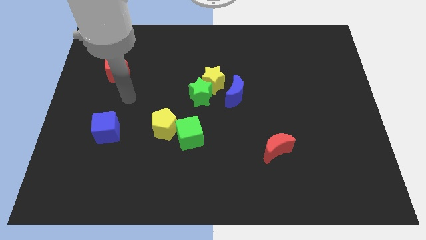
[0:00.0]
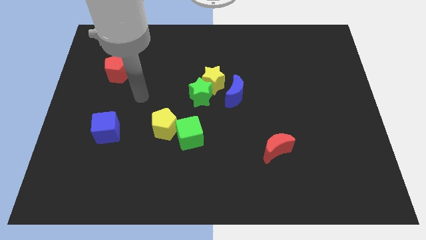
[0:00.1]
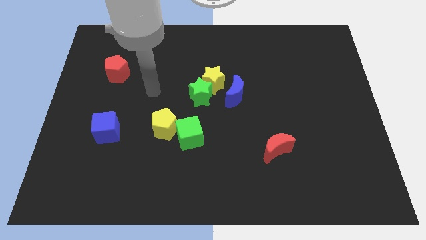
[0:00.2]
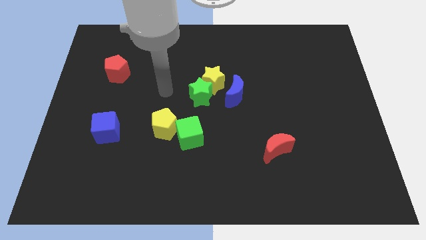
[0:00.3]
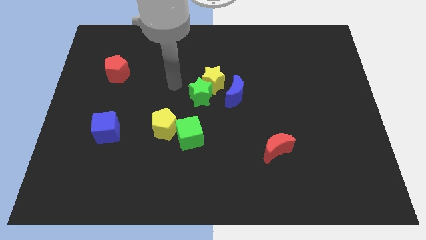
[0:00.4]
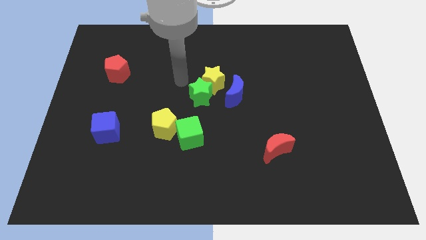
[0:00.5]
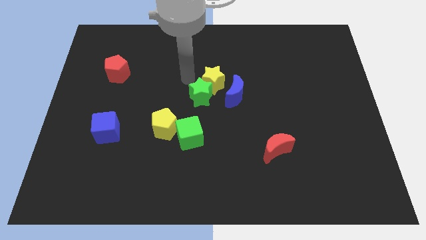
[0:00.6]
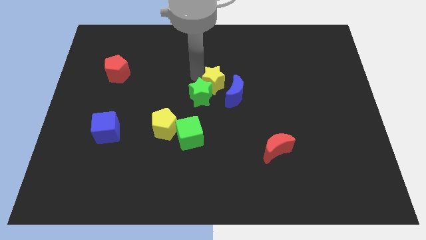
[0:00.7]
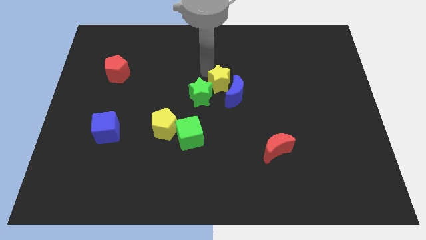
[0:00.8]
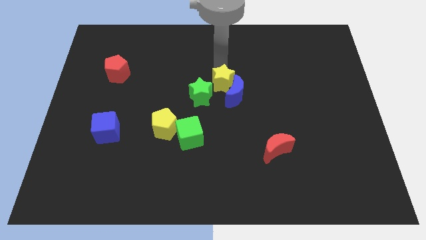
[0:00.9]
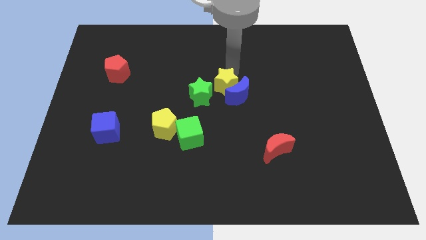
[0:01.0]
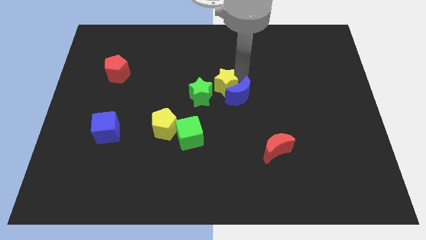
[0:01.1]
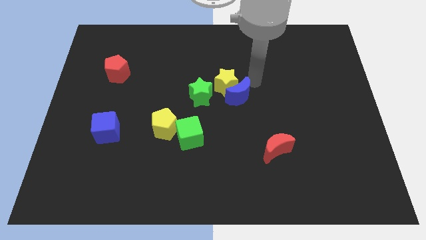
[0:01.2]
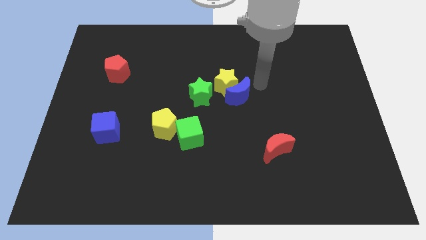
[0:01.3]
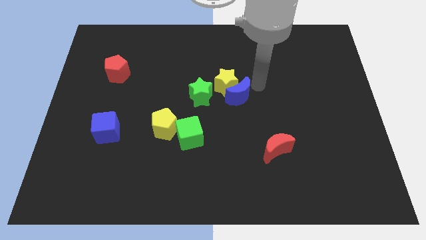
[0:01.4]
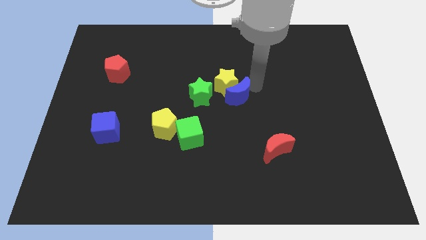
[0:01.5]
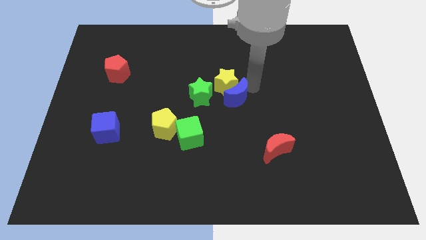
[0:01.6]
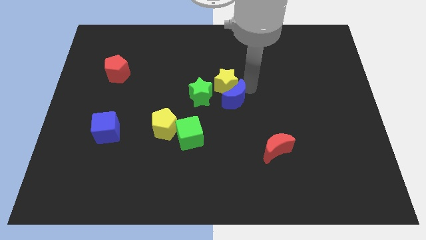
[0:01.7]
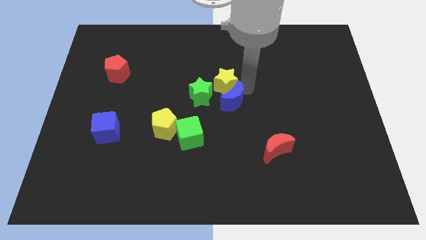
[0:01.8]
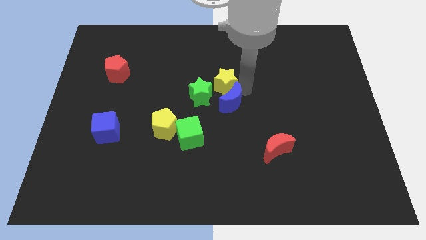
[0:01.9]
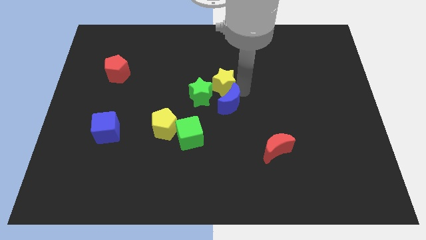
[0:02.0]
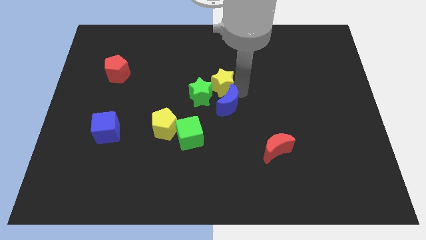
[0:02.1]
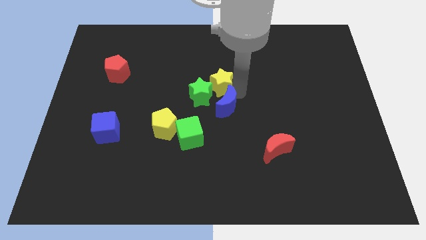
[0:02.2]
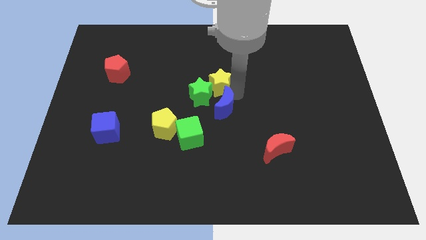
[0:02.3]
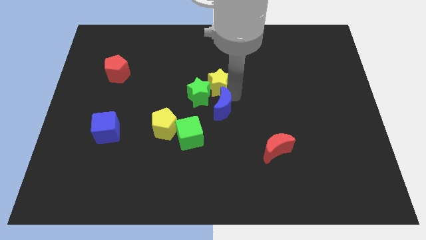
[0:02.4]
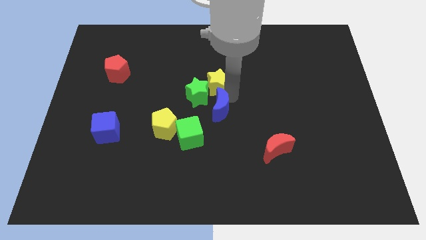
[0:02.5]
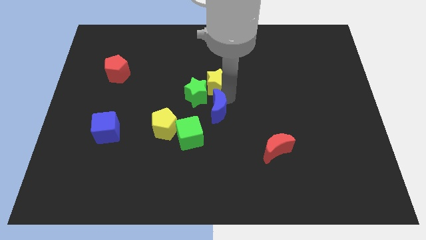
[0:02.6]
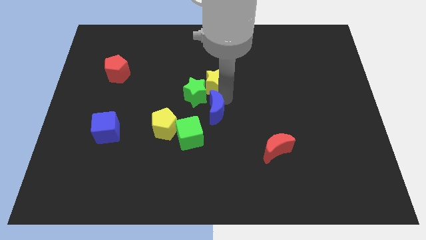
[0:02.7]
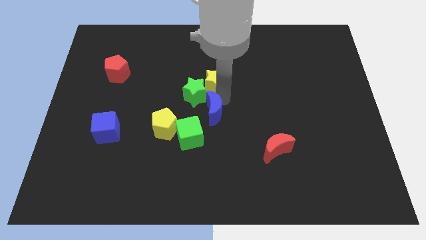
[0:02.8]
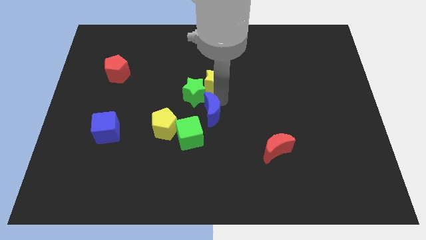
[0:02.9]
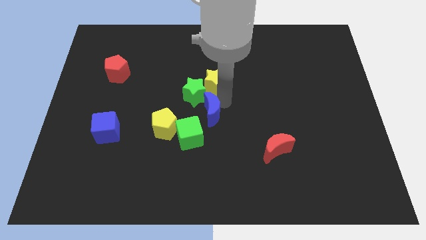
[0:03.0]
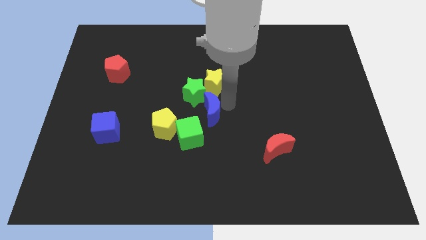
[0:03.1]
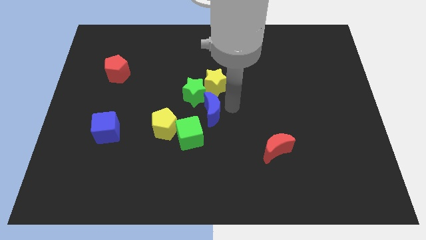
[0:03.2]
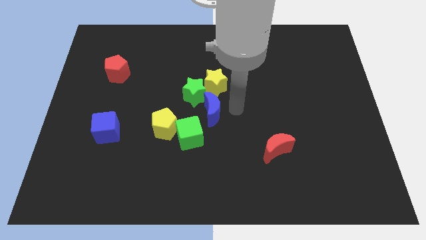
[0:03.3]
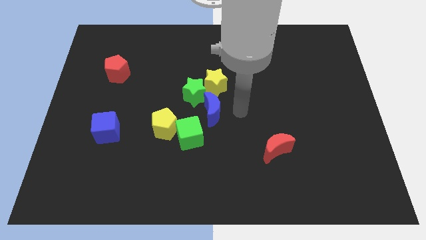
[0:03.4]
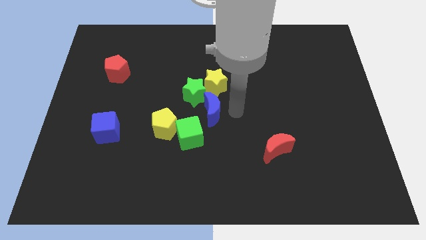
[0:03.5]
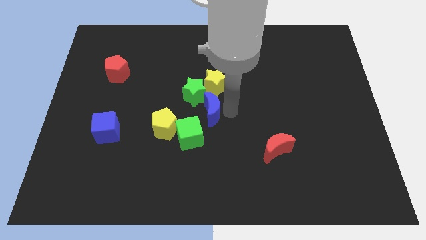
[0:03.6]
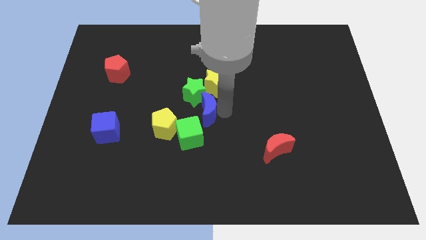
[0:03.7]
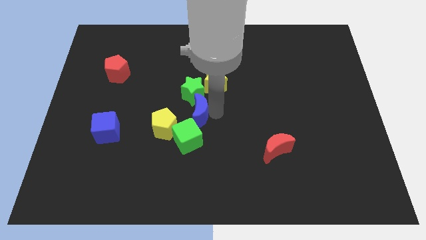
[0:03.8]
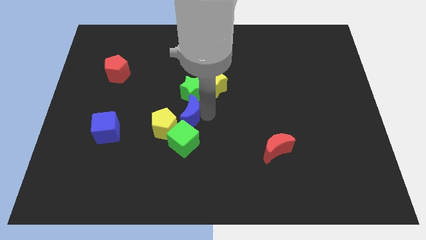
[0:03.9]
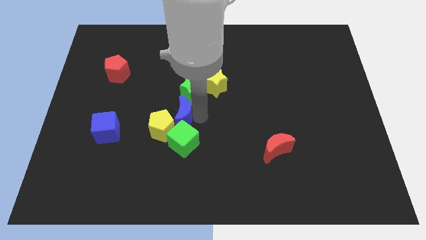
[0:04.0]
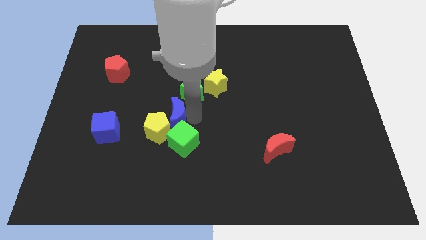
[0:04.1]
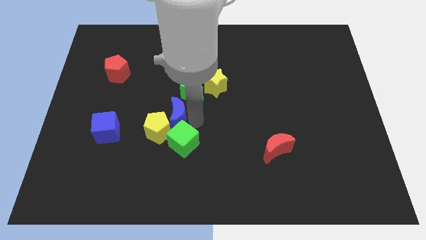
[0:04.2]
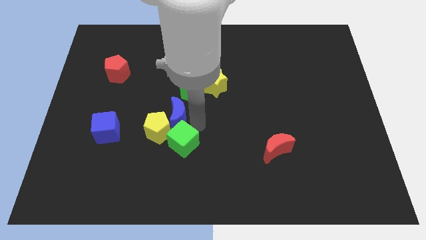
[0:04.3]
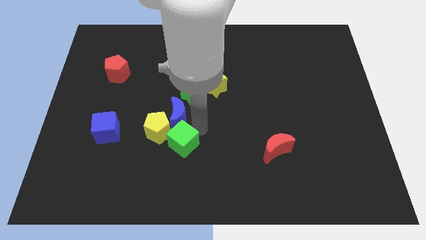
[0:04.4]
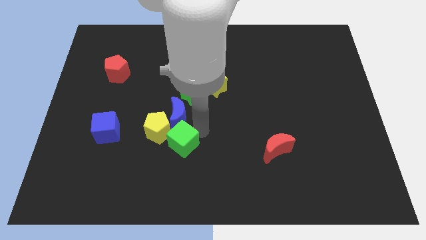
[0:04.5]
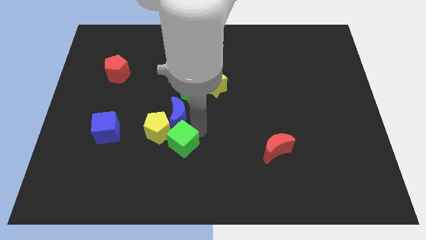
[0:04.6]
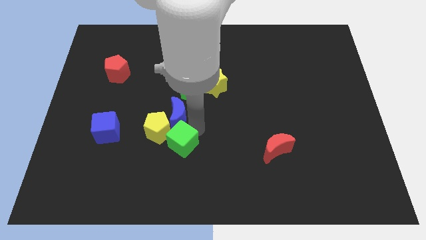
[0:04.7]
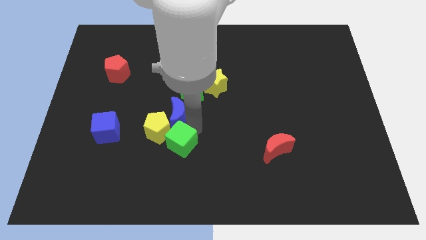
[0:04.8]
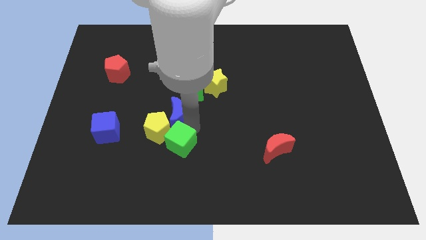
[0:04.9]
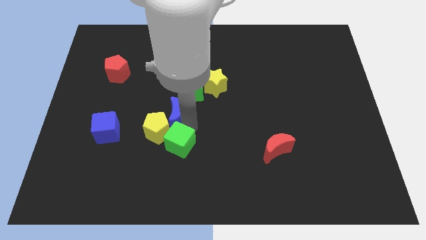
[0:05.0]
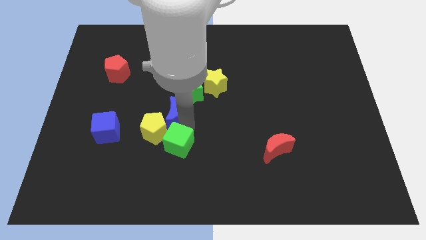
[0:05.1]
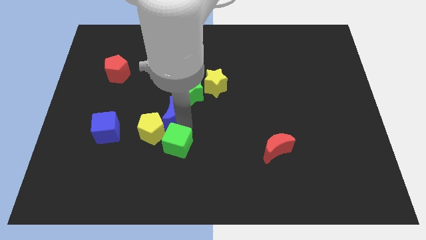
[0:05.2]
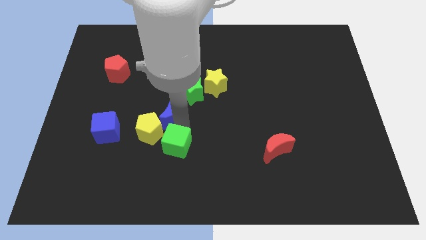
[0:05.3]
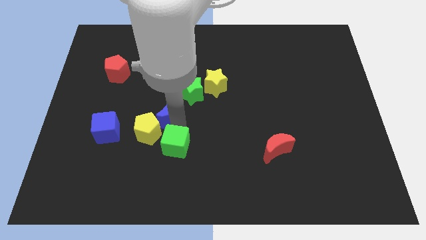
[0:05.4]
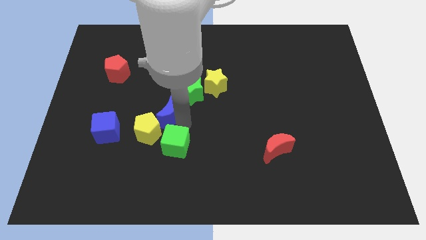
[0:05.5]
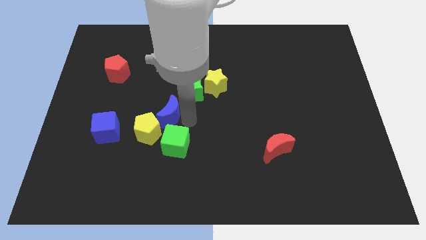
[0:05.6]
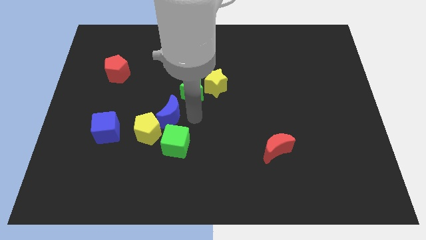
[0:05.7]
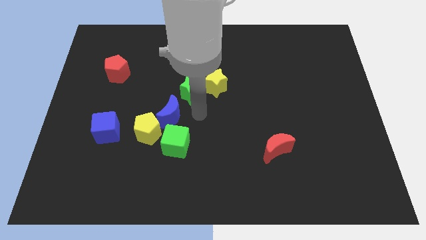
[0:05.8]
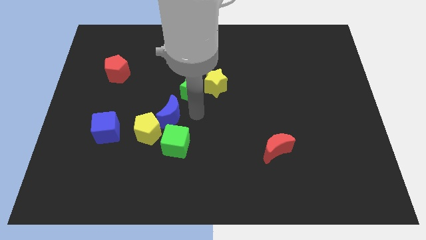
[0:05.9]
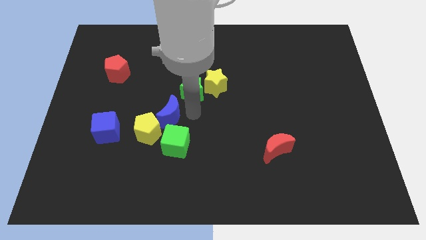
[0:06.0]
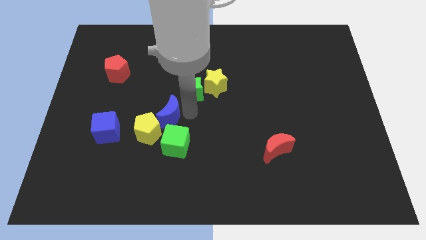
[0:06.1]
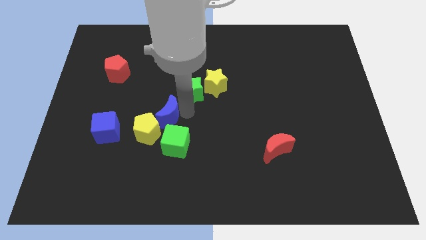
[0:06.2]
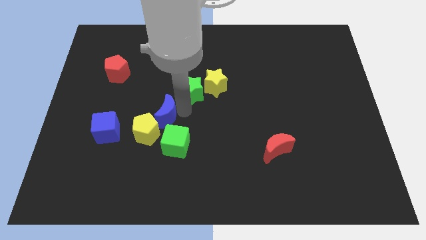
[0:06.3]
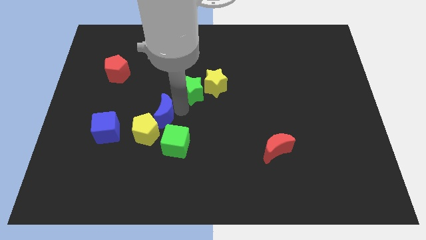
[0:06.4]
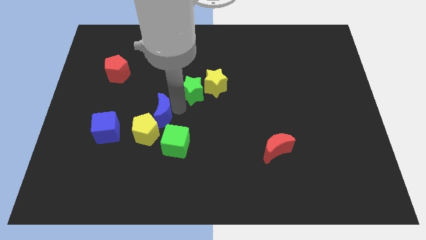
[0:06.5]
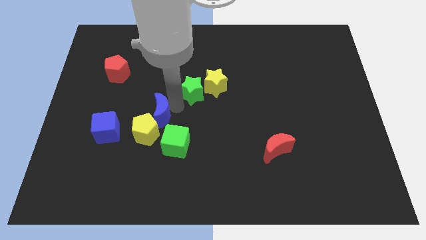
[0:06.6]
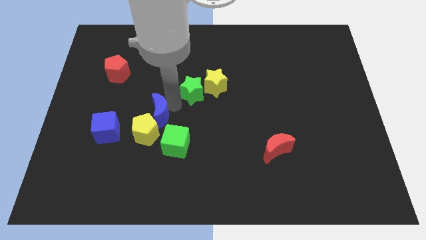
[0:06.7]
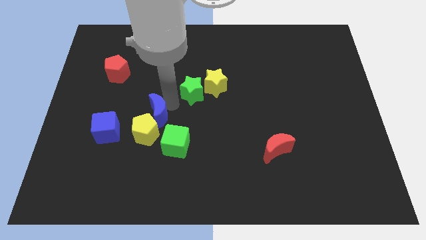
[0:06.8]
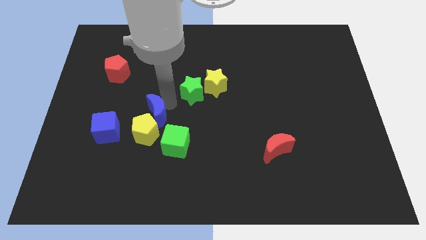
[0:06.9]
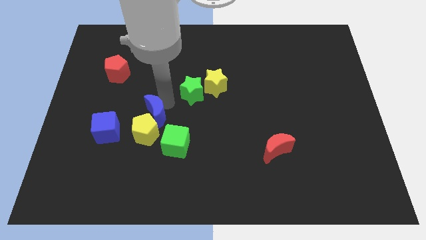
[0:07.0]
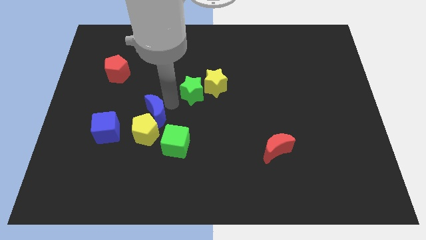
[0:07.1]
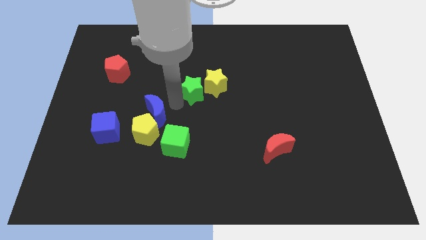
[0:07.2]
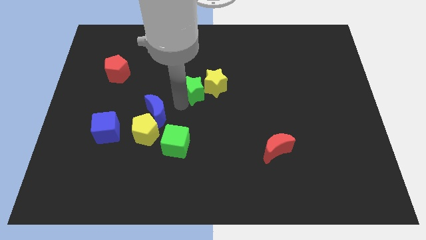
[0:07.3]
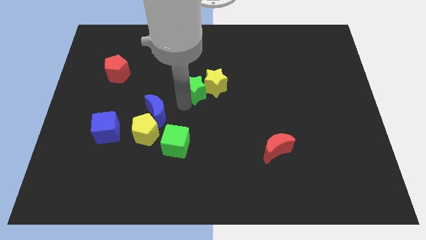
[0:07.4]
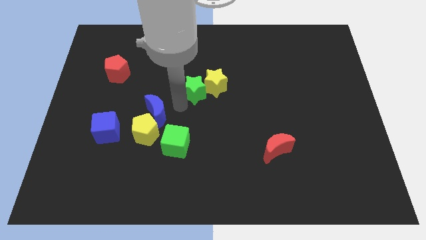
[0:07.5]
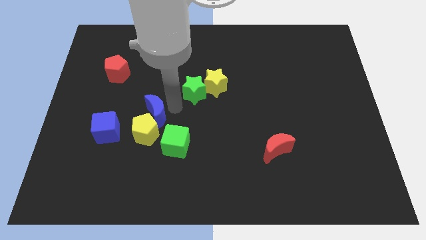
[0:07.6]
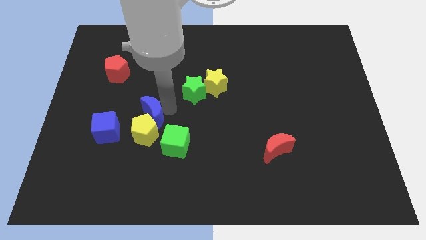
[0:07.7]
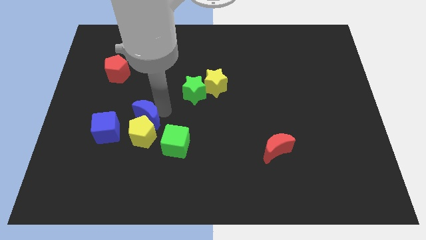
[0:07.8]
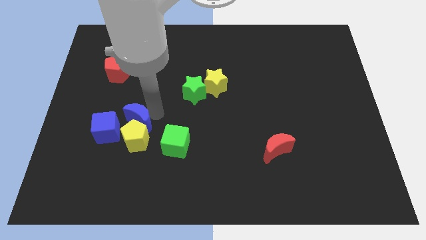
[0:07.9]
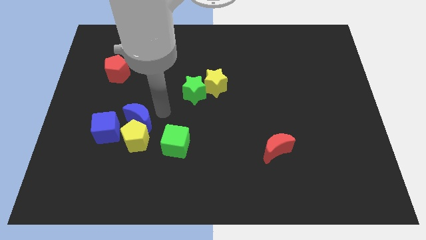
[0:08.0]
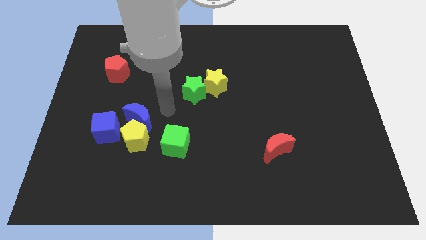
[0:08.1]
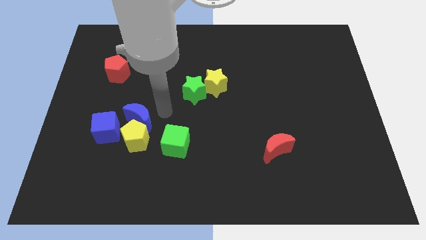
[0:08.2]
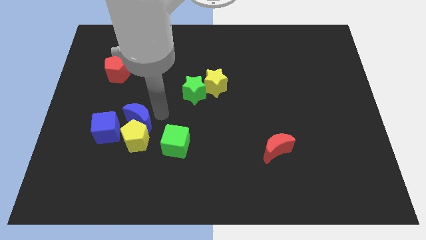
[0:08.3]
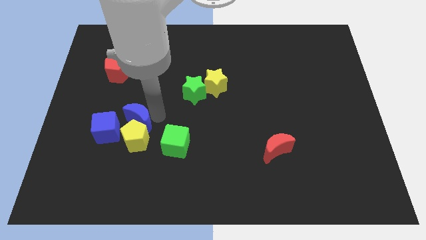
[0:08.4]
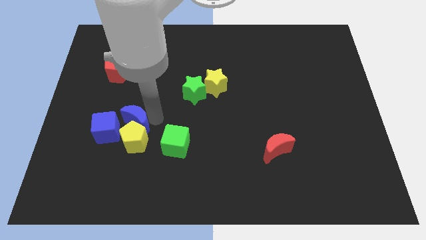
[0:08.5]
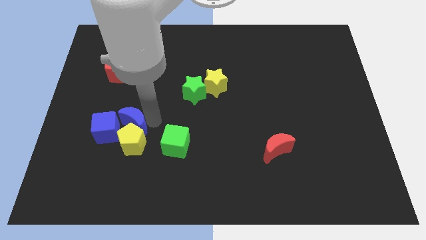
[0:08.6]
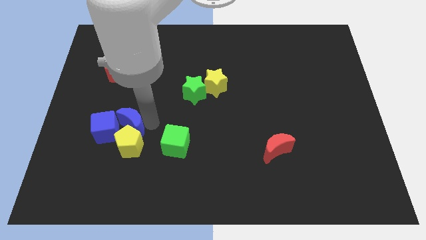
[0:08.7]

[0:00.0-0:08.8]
put the blue moon close to the blue cube
